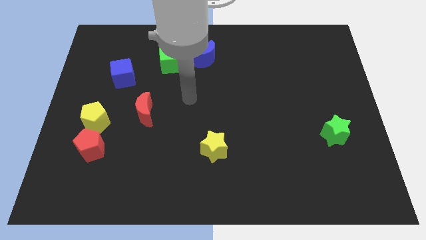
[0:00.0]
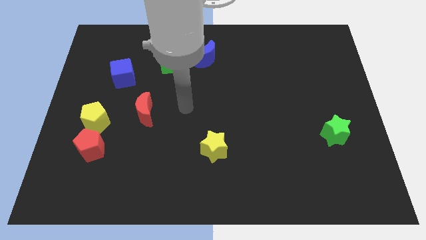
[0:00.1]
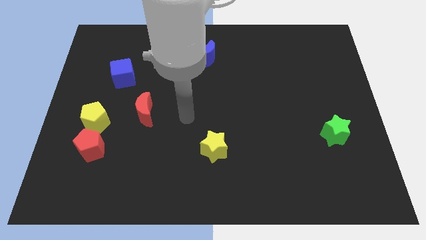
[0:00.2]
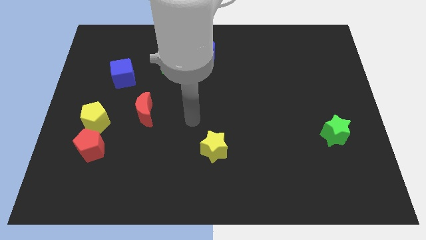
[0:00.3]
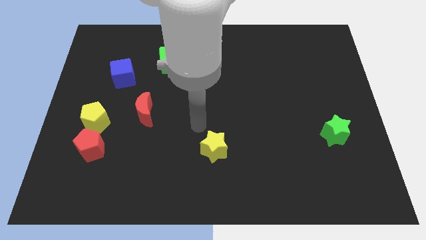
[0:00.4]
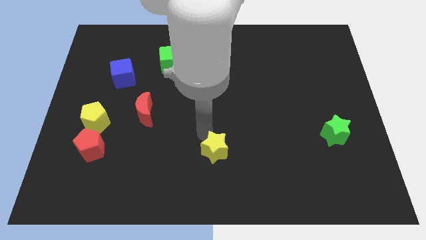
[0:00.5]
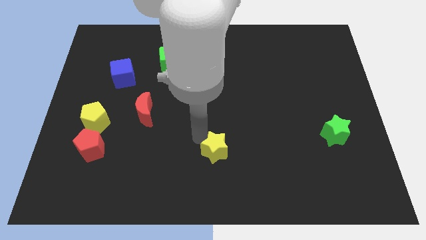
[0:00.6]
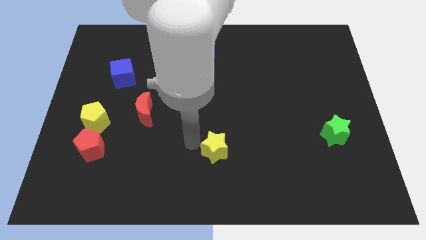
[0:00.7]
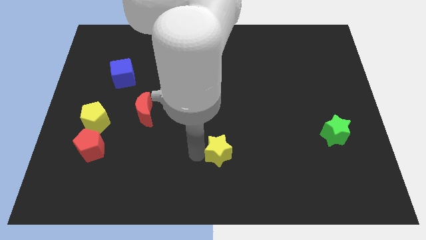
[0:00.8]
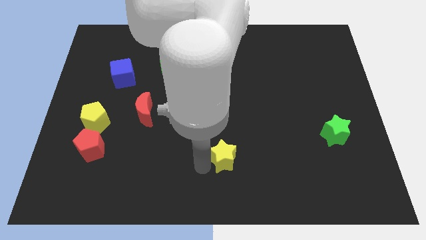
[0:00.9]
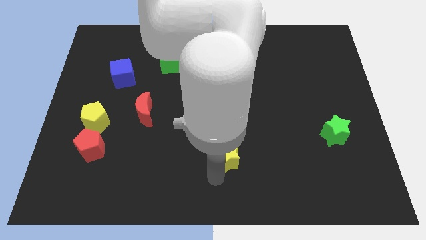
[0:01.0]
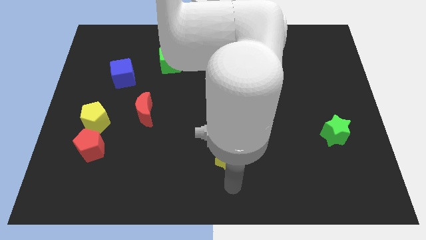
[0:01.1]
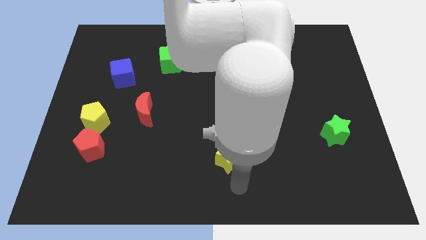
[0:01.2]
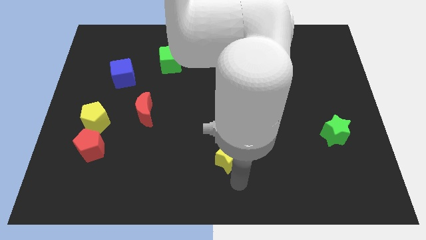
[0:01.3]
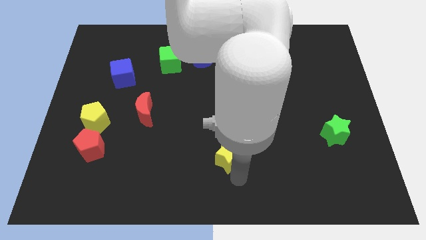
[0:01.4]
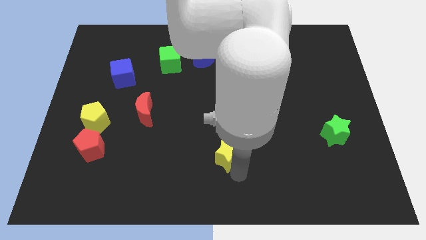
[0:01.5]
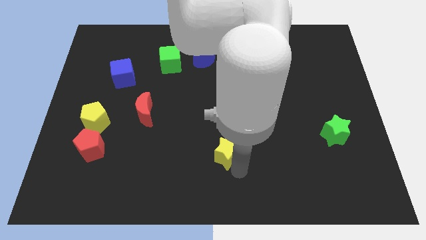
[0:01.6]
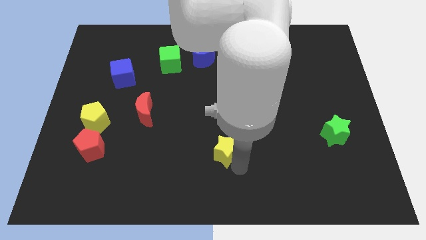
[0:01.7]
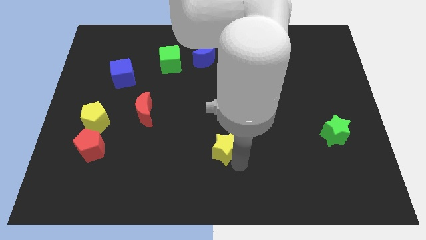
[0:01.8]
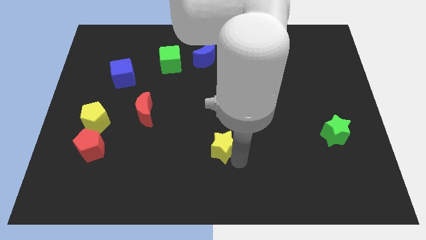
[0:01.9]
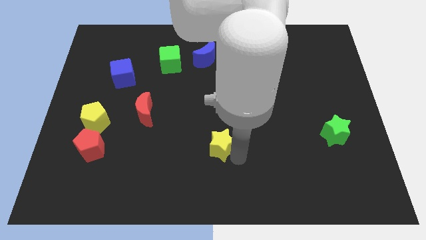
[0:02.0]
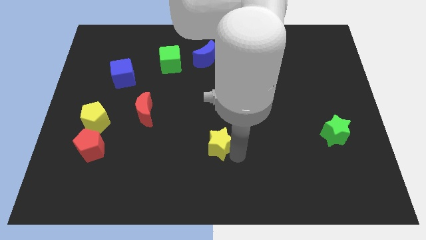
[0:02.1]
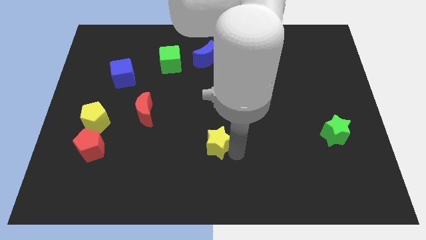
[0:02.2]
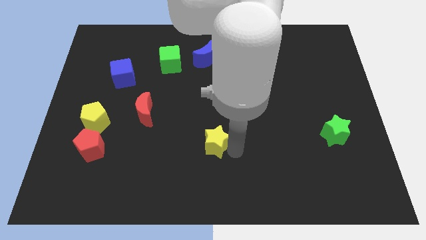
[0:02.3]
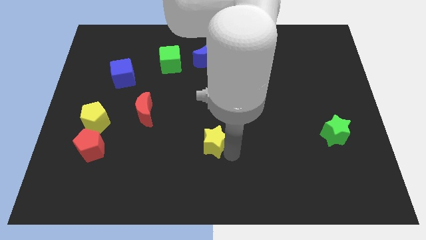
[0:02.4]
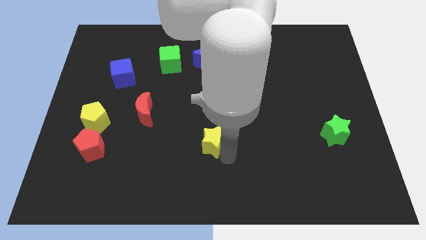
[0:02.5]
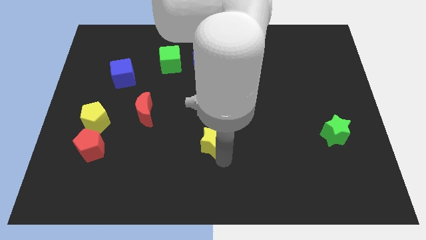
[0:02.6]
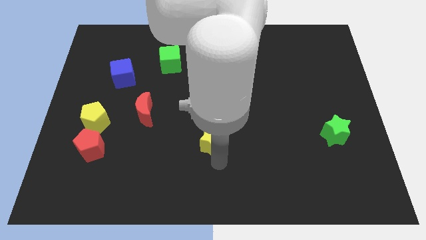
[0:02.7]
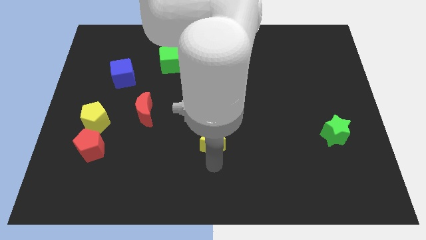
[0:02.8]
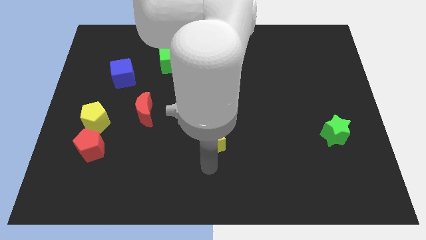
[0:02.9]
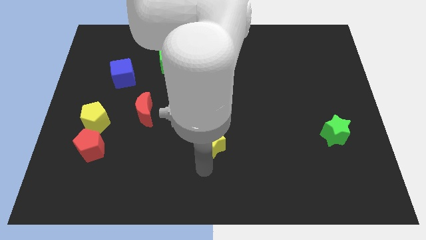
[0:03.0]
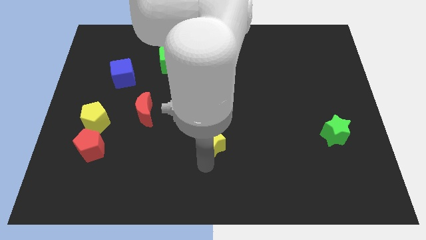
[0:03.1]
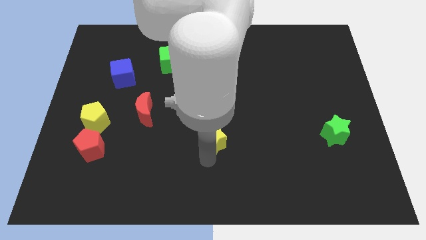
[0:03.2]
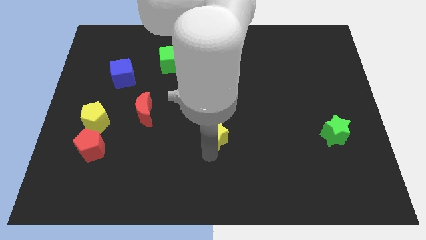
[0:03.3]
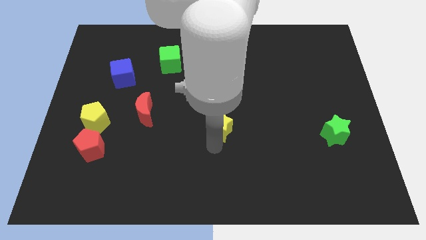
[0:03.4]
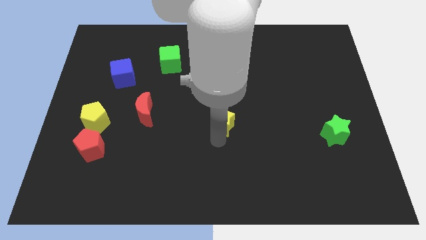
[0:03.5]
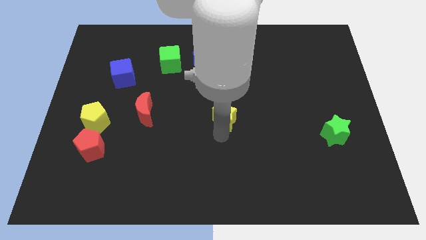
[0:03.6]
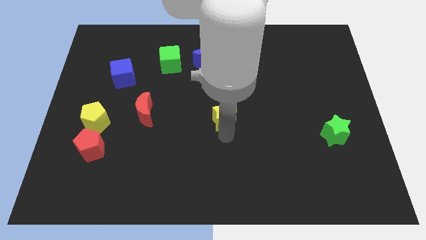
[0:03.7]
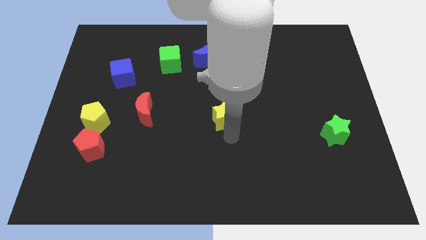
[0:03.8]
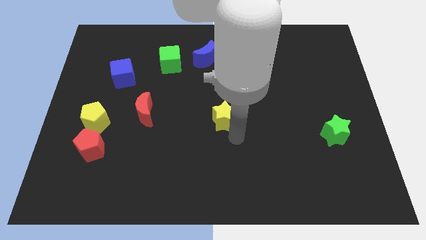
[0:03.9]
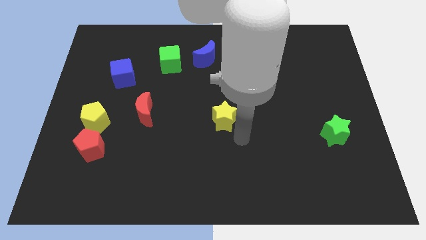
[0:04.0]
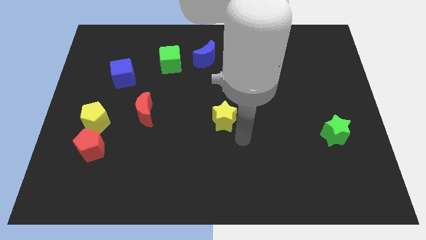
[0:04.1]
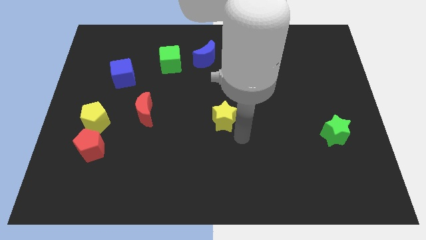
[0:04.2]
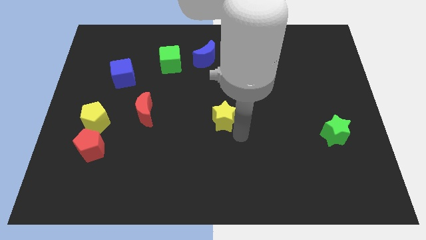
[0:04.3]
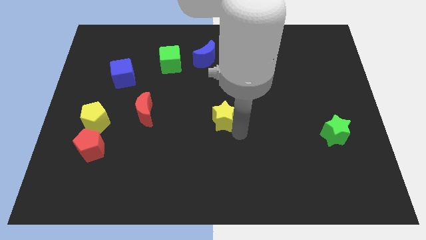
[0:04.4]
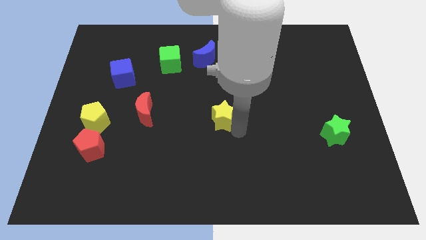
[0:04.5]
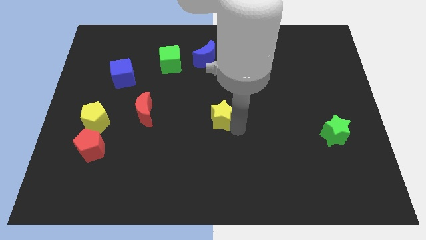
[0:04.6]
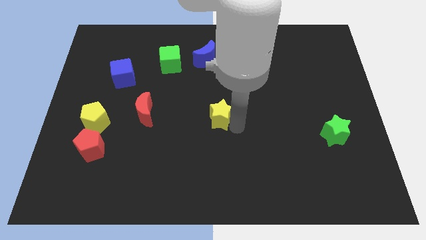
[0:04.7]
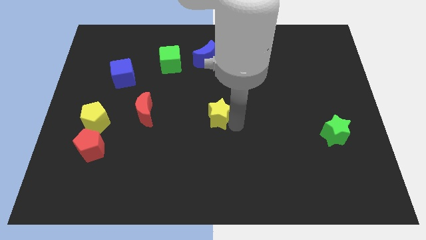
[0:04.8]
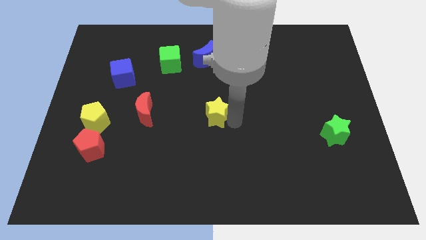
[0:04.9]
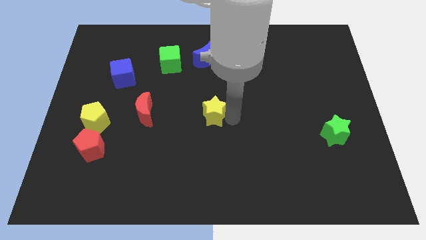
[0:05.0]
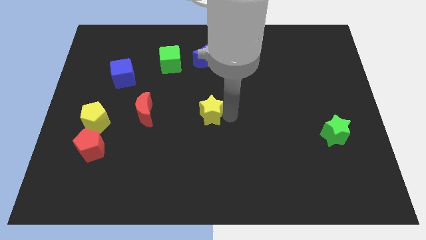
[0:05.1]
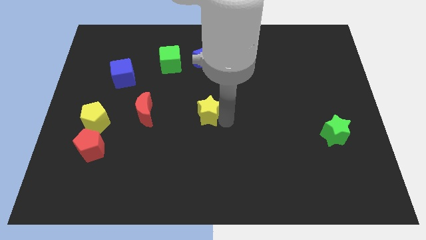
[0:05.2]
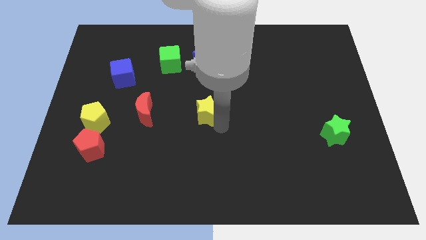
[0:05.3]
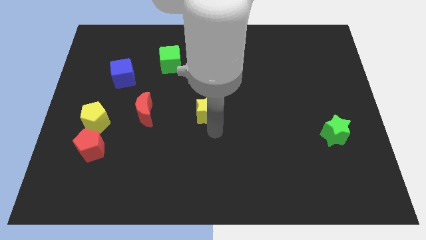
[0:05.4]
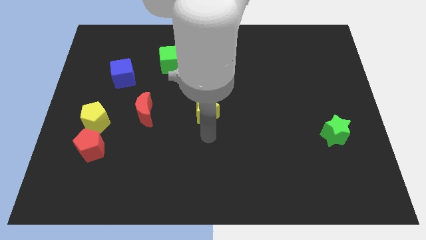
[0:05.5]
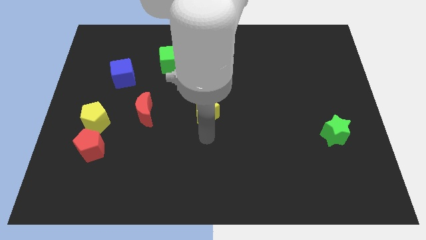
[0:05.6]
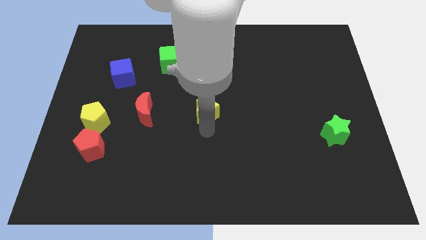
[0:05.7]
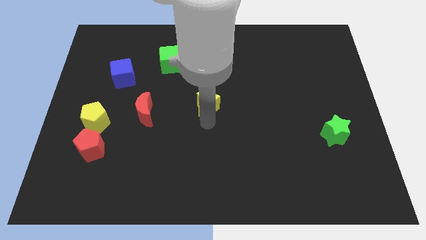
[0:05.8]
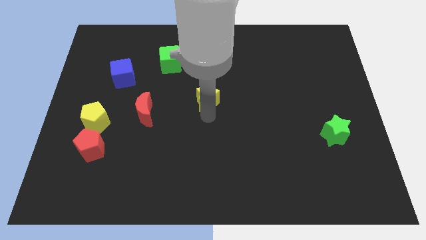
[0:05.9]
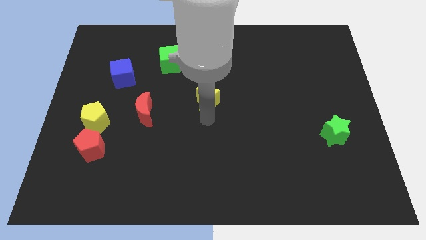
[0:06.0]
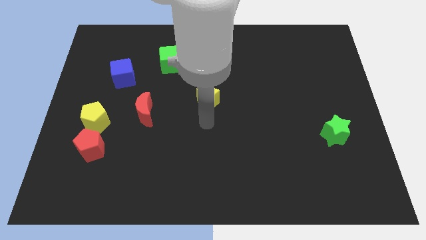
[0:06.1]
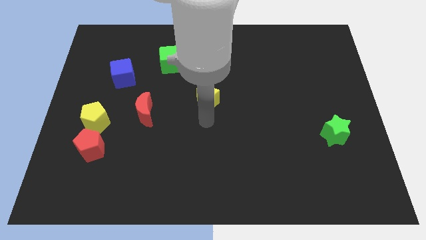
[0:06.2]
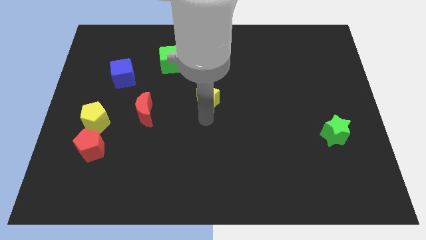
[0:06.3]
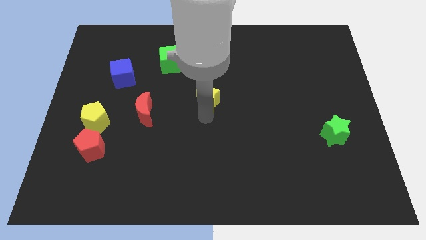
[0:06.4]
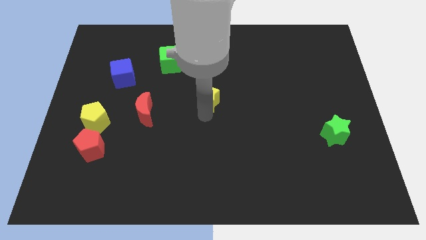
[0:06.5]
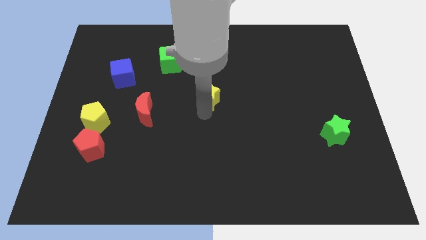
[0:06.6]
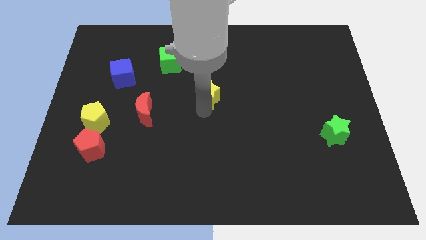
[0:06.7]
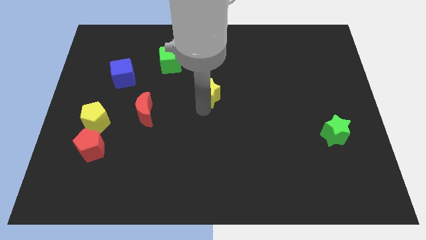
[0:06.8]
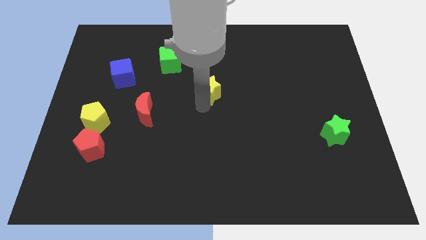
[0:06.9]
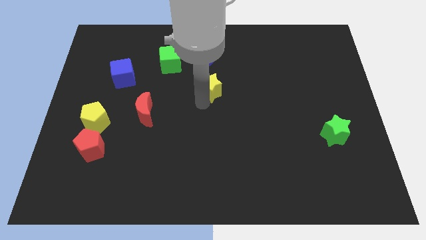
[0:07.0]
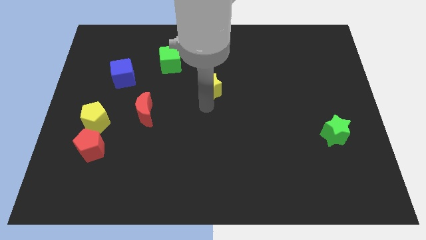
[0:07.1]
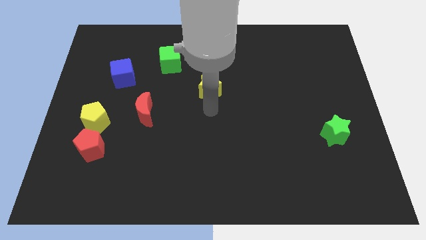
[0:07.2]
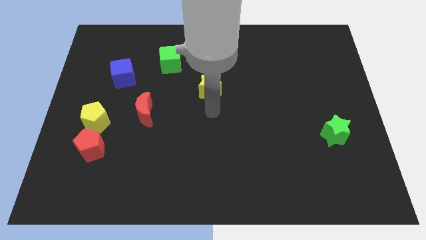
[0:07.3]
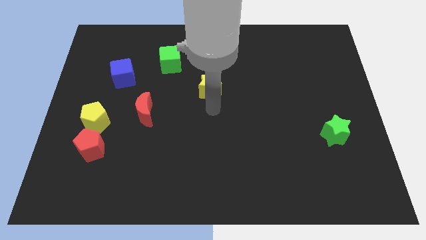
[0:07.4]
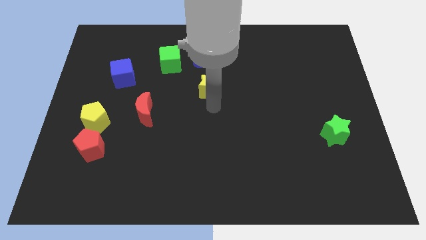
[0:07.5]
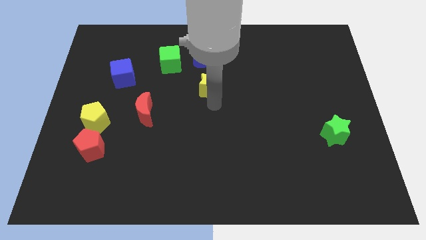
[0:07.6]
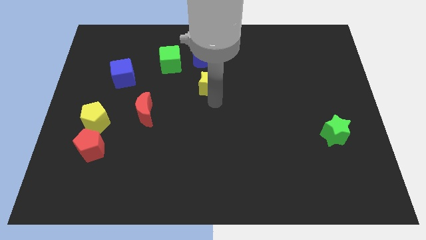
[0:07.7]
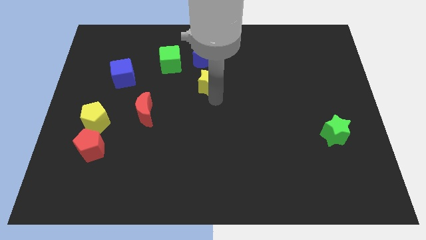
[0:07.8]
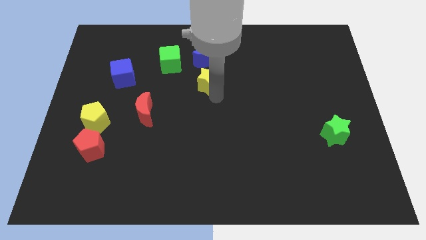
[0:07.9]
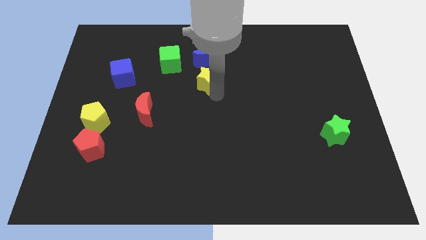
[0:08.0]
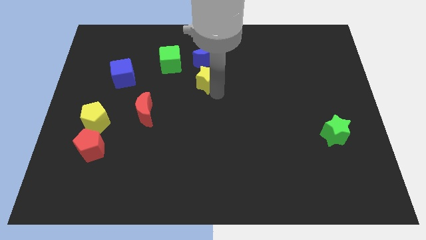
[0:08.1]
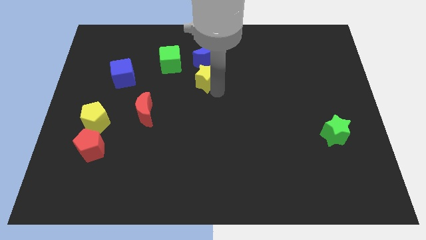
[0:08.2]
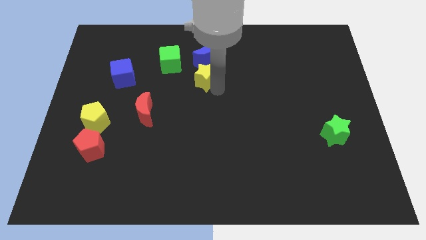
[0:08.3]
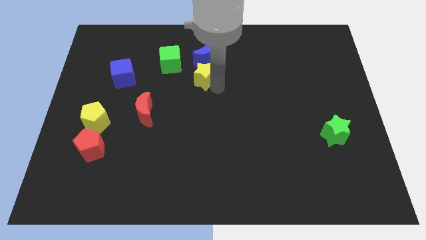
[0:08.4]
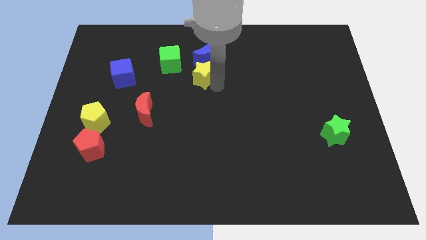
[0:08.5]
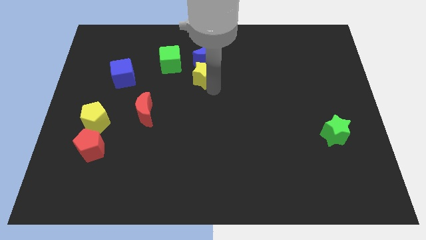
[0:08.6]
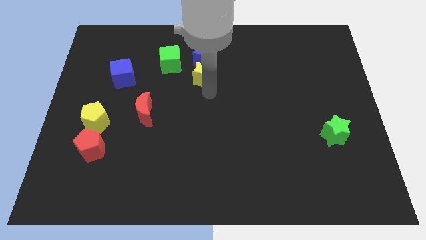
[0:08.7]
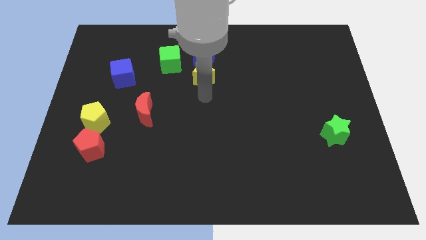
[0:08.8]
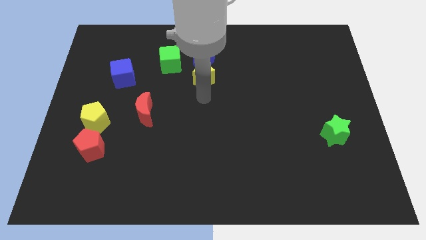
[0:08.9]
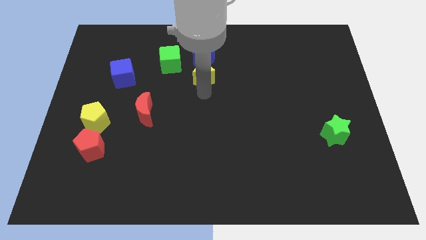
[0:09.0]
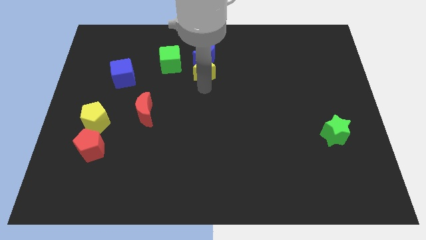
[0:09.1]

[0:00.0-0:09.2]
slide the yellow star close to the blue moon
